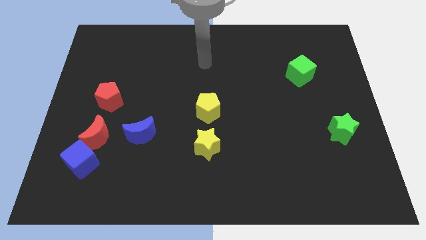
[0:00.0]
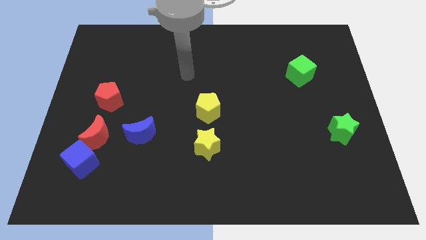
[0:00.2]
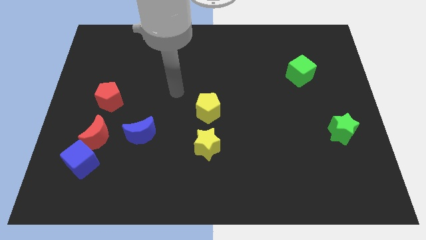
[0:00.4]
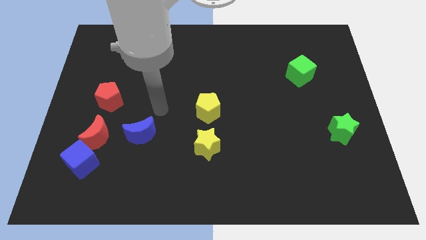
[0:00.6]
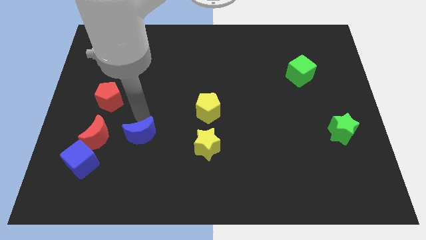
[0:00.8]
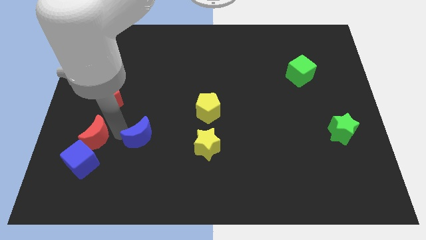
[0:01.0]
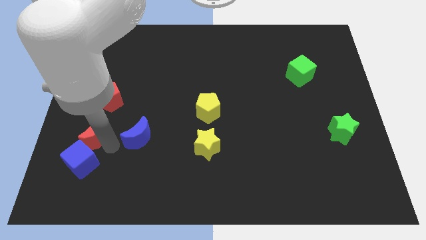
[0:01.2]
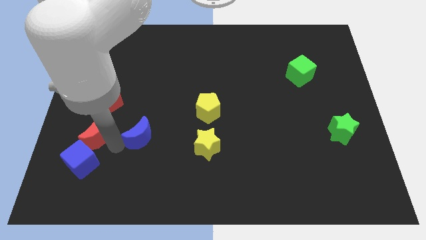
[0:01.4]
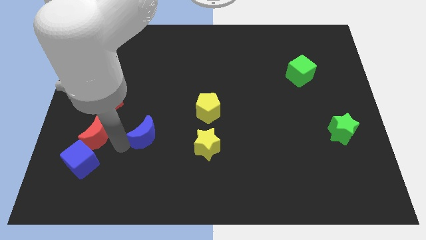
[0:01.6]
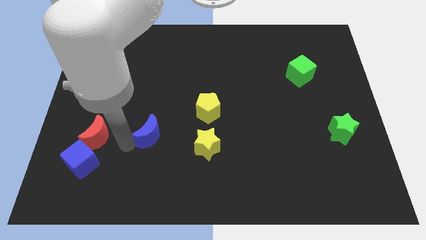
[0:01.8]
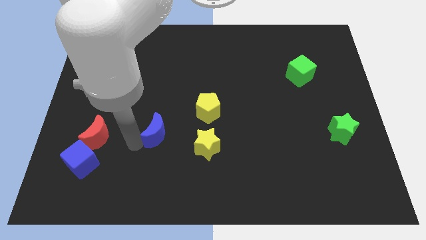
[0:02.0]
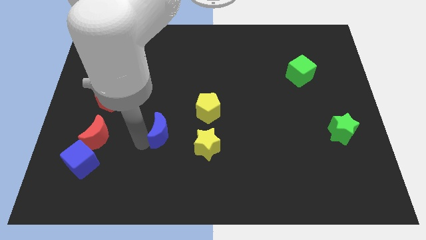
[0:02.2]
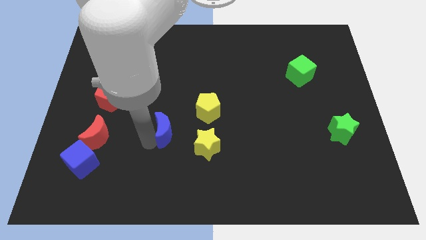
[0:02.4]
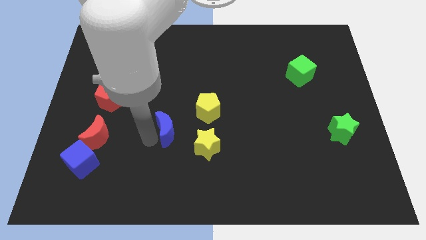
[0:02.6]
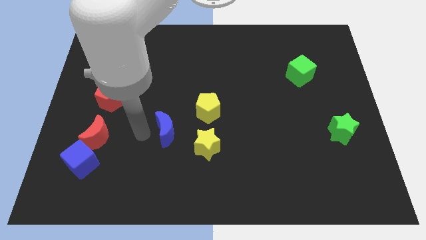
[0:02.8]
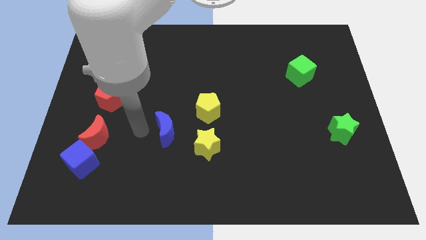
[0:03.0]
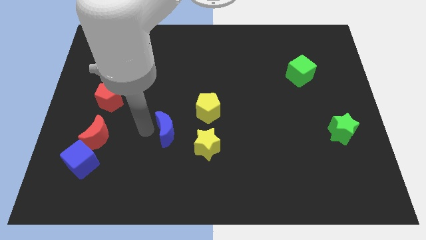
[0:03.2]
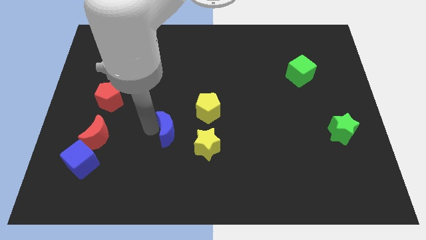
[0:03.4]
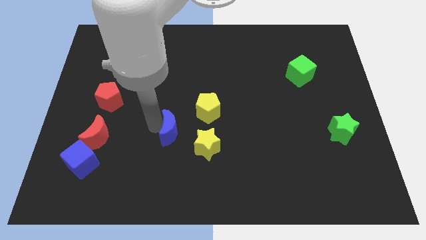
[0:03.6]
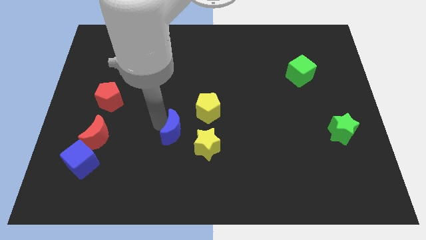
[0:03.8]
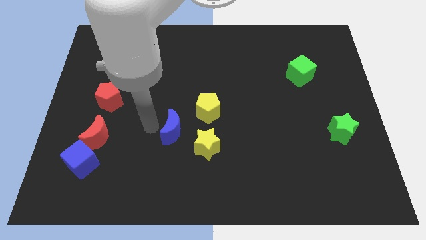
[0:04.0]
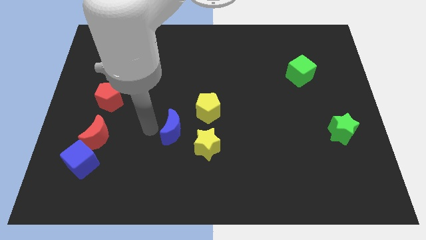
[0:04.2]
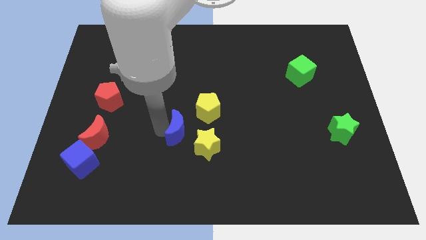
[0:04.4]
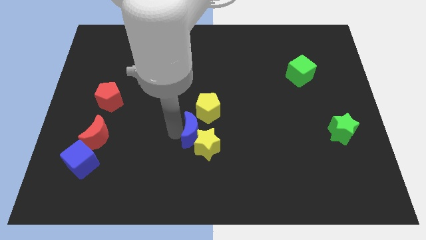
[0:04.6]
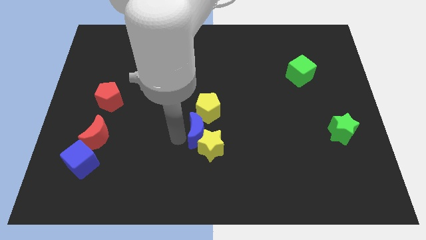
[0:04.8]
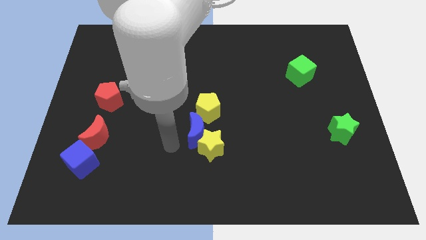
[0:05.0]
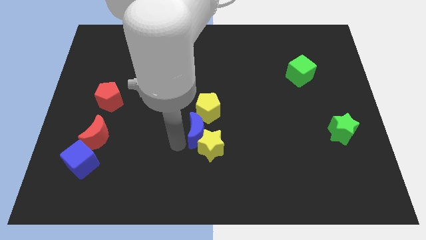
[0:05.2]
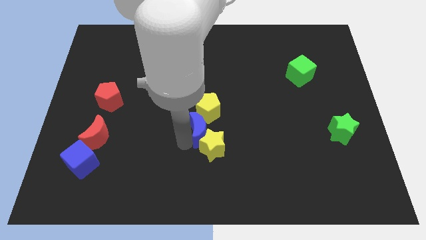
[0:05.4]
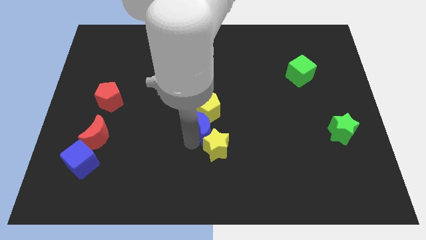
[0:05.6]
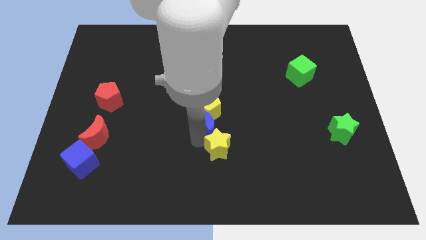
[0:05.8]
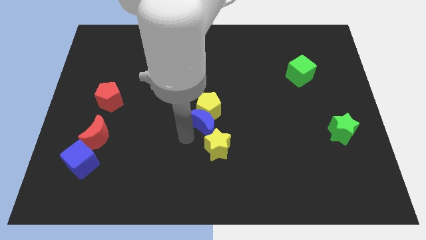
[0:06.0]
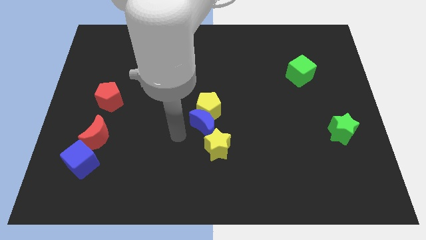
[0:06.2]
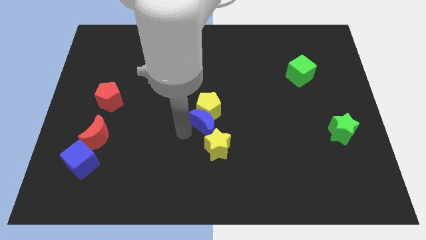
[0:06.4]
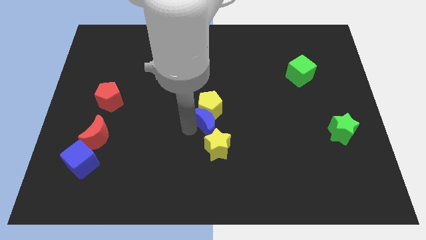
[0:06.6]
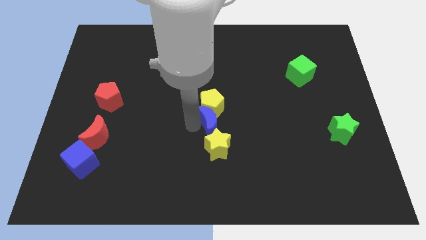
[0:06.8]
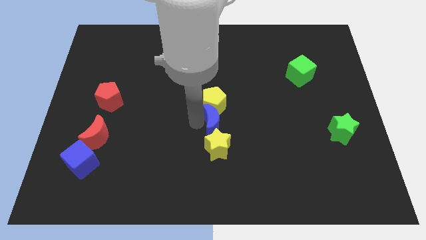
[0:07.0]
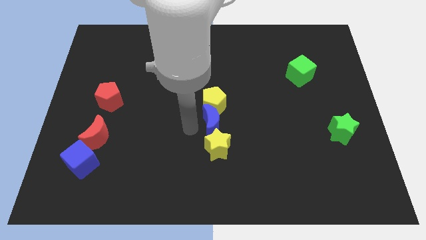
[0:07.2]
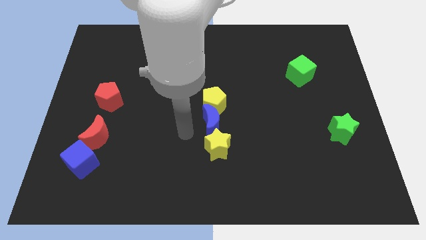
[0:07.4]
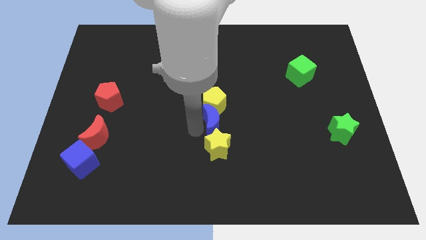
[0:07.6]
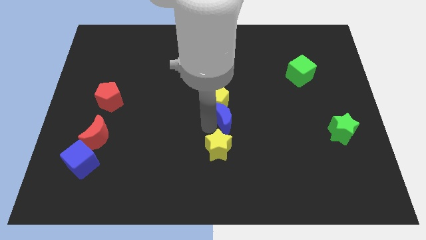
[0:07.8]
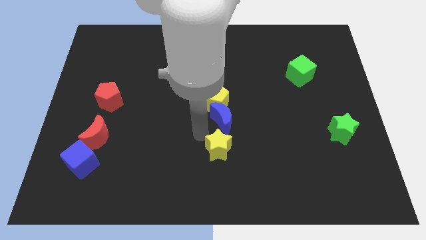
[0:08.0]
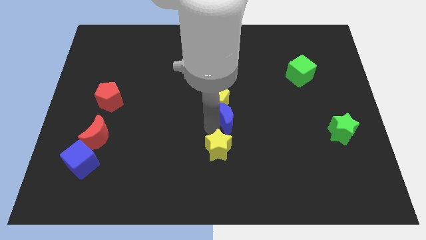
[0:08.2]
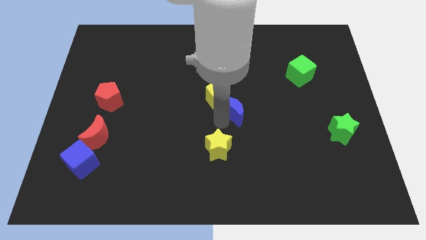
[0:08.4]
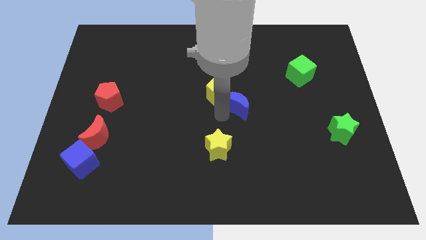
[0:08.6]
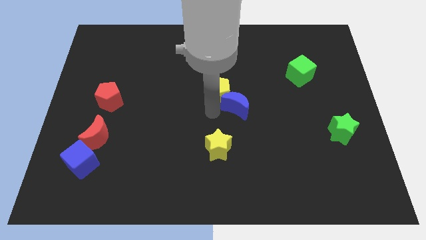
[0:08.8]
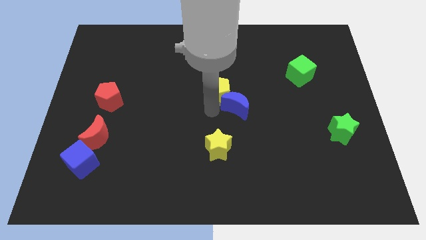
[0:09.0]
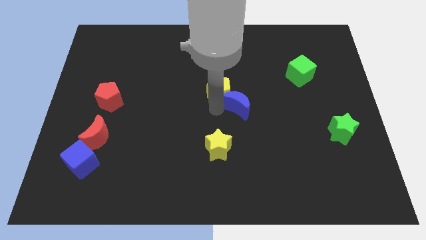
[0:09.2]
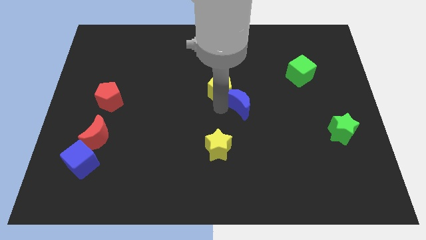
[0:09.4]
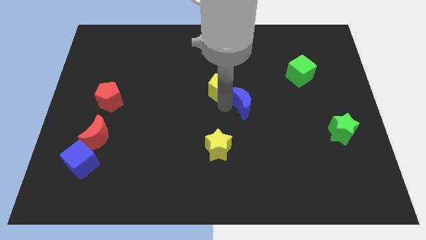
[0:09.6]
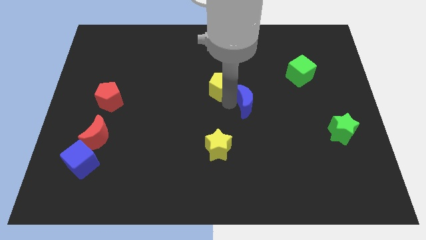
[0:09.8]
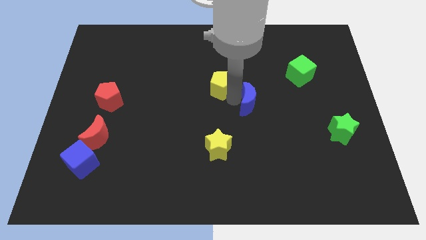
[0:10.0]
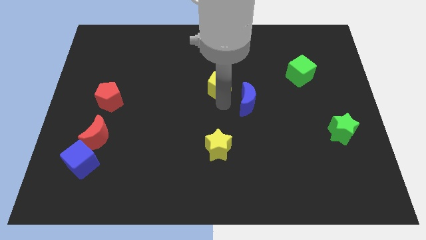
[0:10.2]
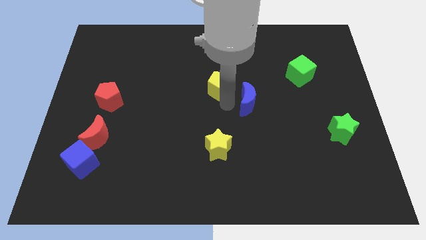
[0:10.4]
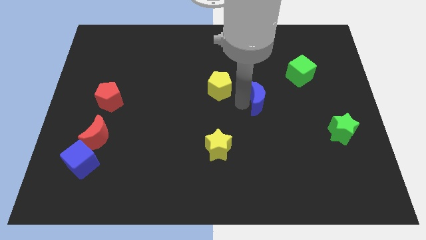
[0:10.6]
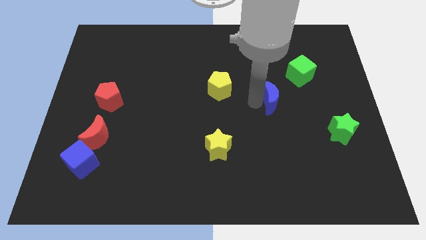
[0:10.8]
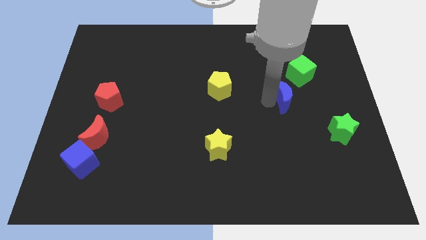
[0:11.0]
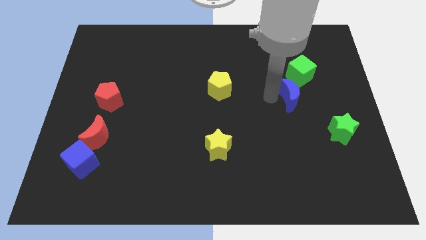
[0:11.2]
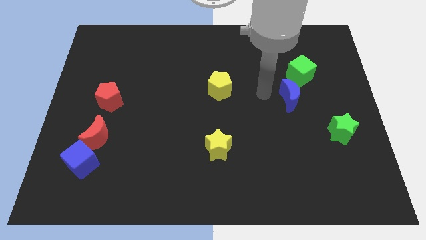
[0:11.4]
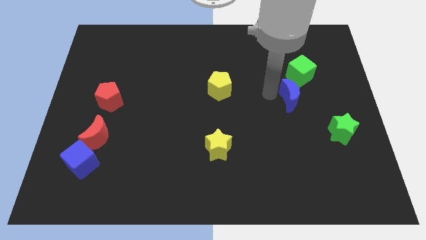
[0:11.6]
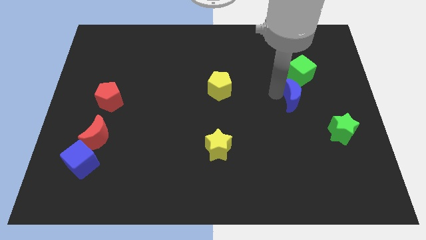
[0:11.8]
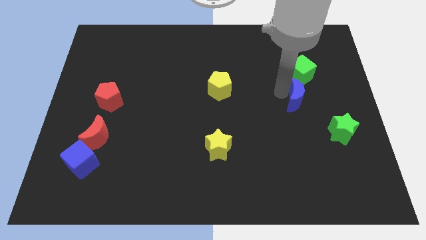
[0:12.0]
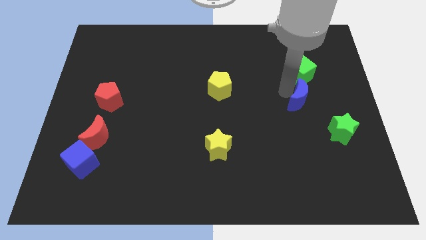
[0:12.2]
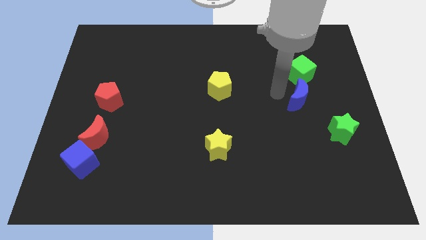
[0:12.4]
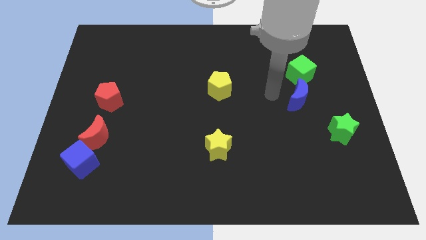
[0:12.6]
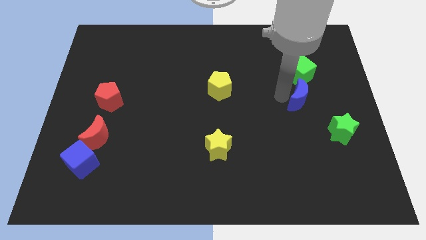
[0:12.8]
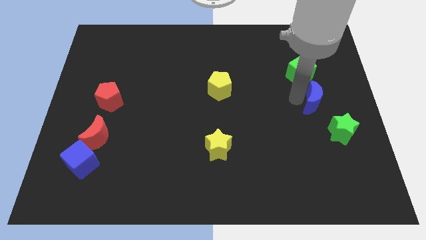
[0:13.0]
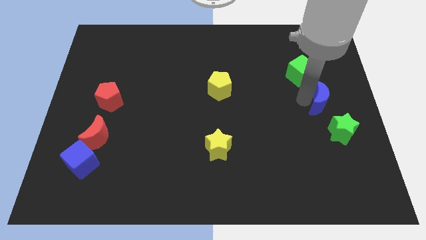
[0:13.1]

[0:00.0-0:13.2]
slide the blue moon to the center right
